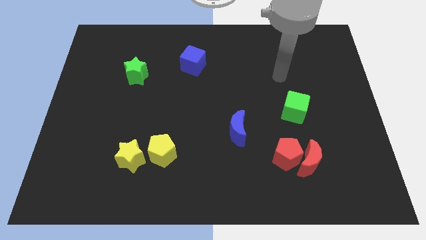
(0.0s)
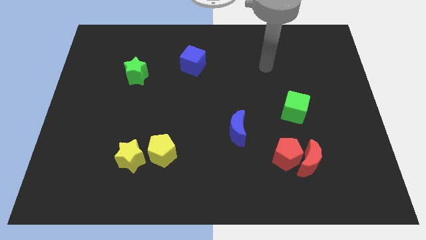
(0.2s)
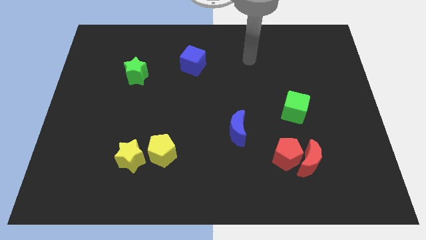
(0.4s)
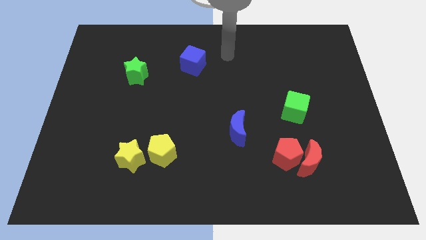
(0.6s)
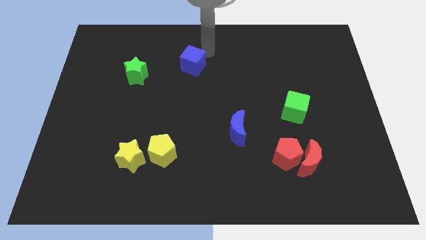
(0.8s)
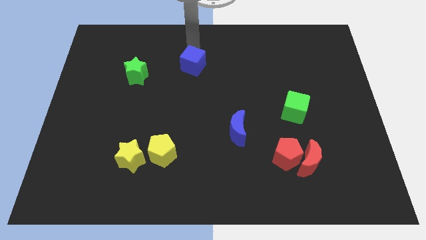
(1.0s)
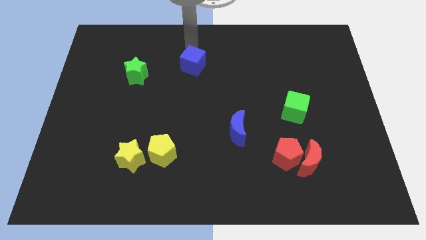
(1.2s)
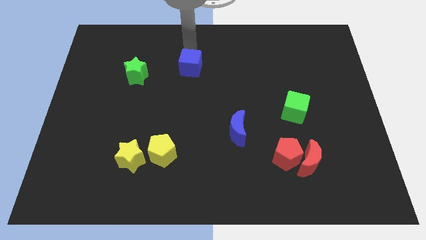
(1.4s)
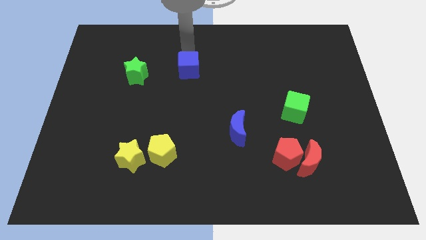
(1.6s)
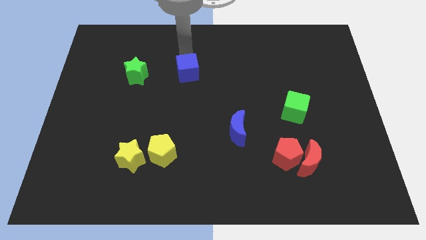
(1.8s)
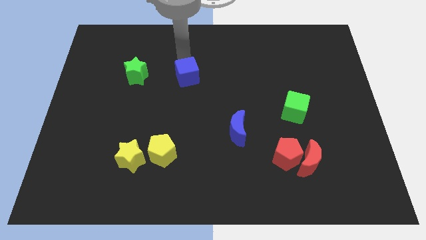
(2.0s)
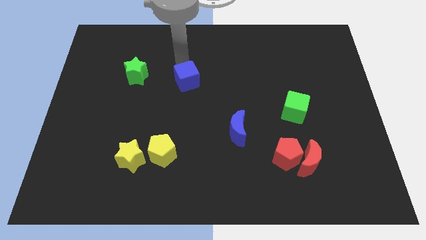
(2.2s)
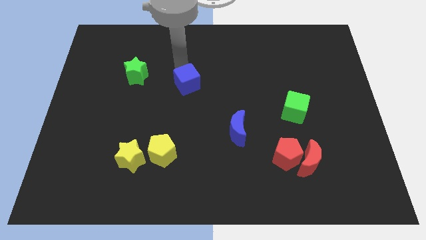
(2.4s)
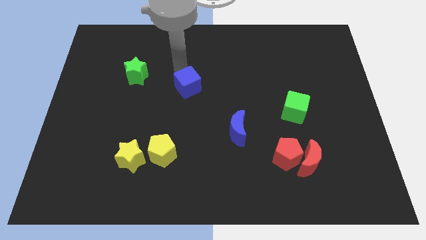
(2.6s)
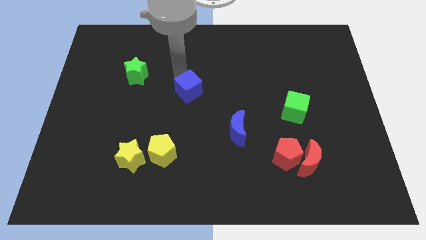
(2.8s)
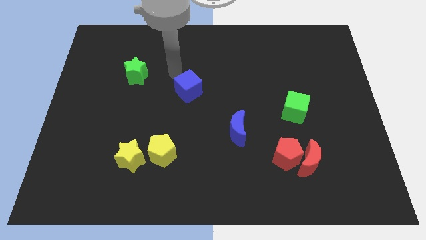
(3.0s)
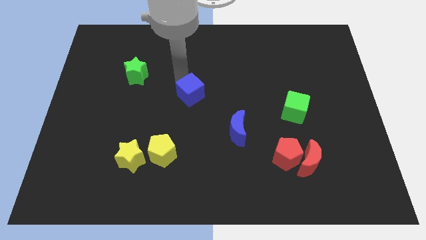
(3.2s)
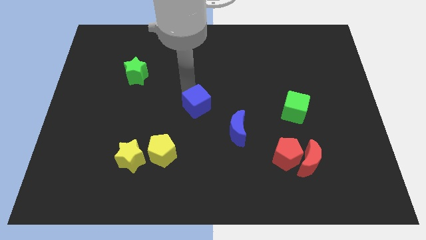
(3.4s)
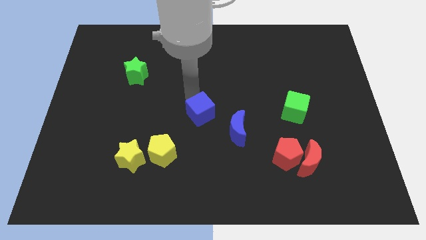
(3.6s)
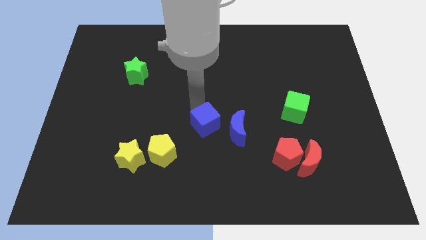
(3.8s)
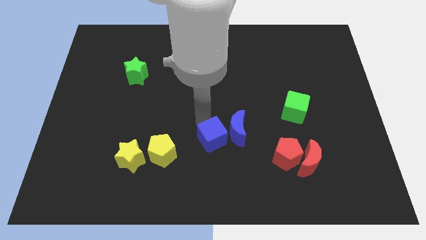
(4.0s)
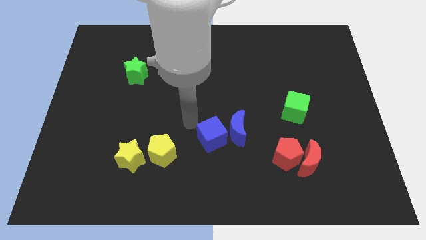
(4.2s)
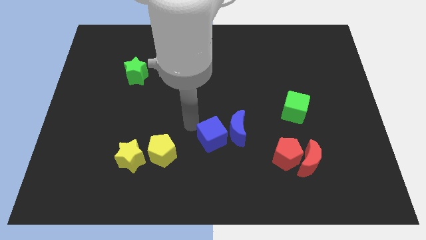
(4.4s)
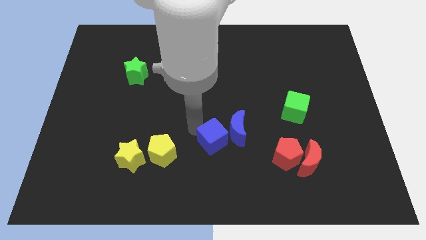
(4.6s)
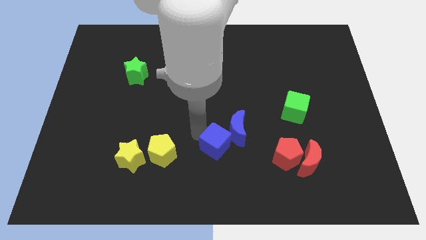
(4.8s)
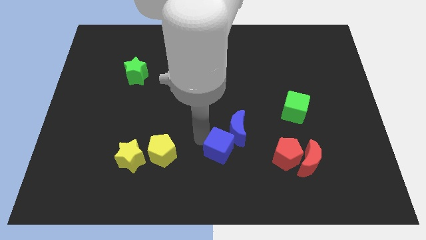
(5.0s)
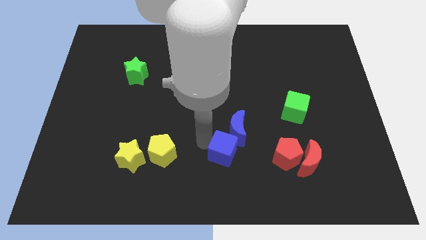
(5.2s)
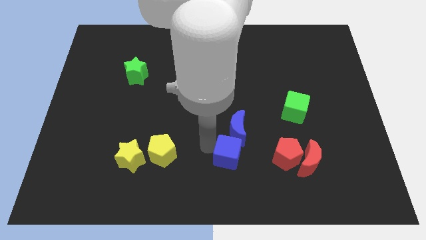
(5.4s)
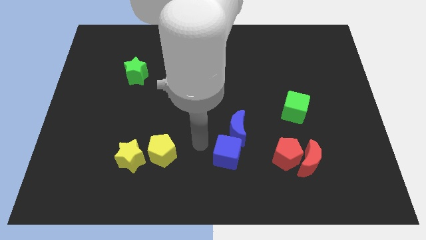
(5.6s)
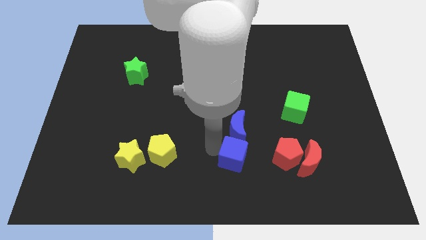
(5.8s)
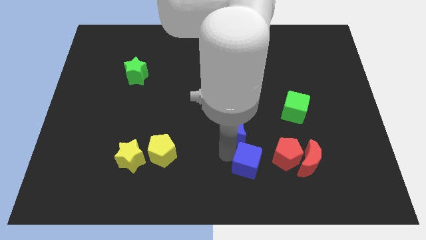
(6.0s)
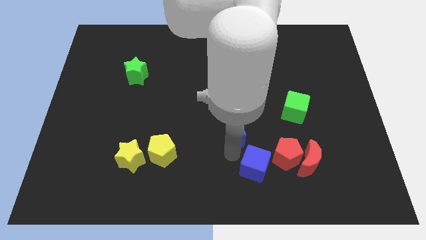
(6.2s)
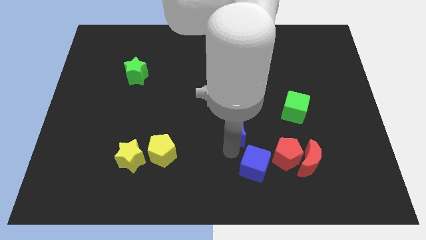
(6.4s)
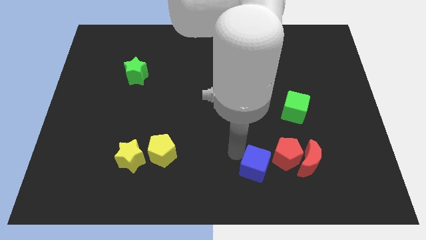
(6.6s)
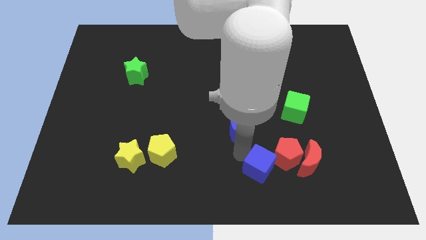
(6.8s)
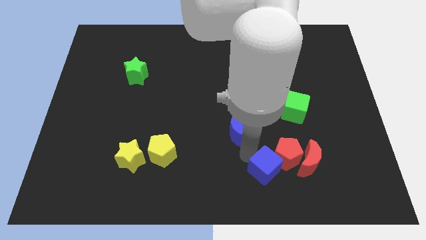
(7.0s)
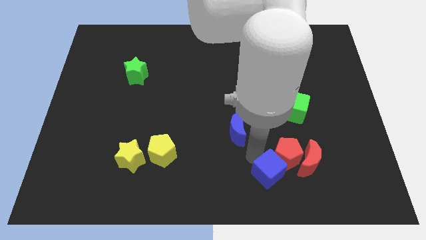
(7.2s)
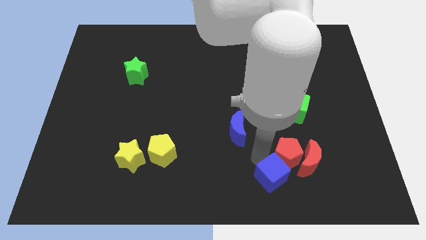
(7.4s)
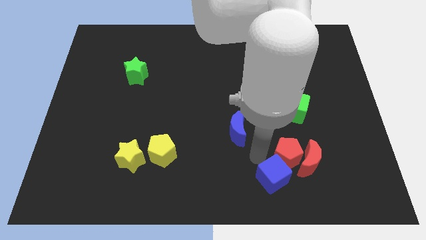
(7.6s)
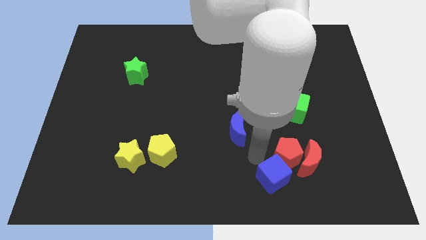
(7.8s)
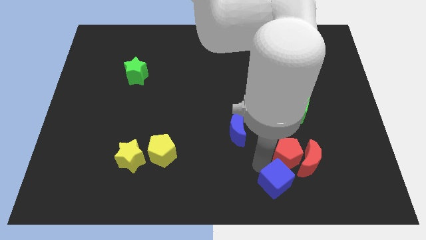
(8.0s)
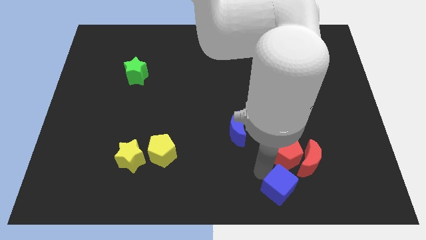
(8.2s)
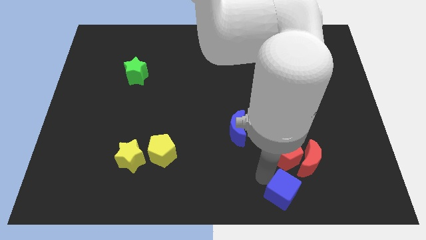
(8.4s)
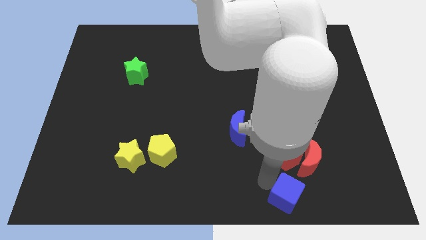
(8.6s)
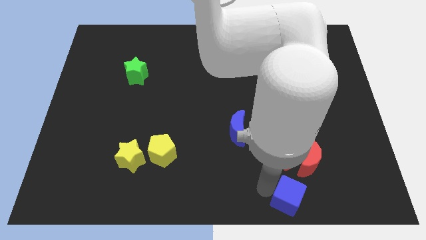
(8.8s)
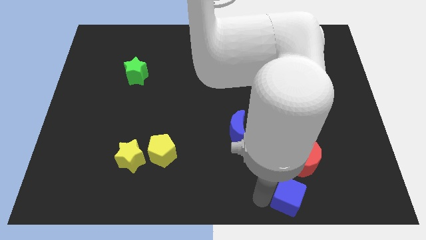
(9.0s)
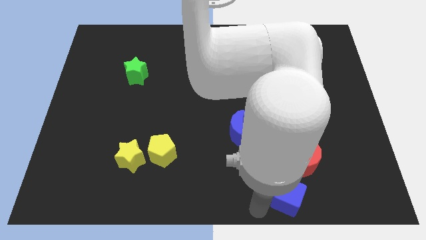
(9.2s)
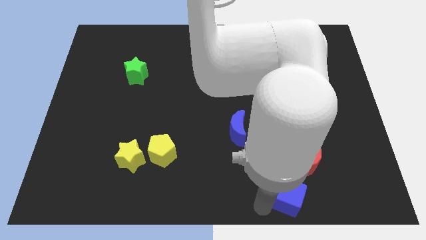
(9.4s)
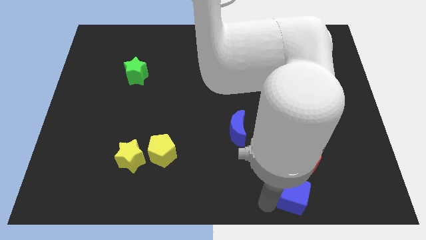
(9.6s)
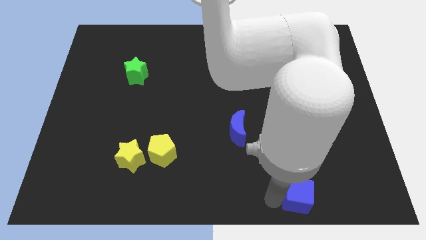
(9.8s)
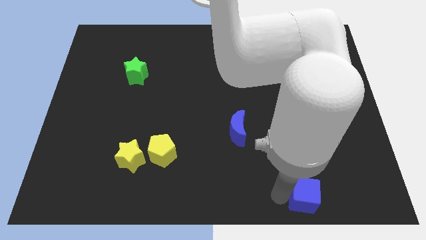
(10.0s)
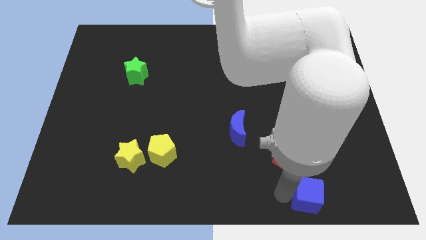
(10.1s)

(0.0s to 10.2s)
push the blue cube diagonally down and to the right of the red pentagon

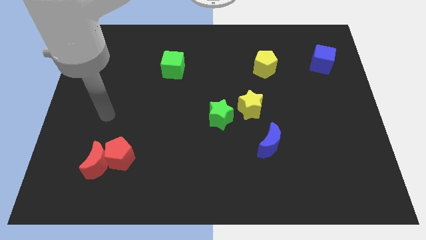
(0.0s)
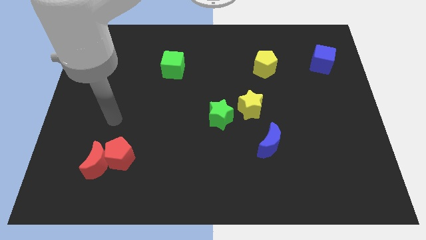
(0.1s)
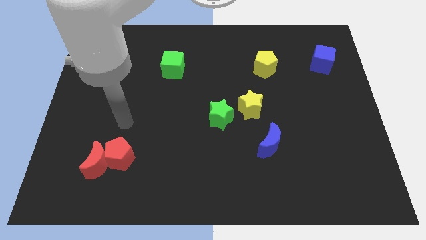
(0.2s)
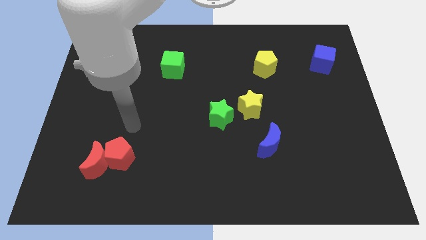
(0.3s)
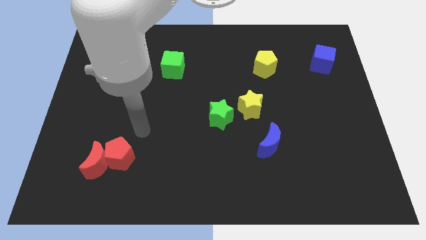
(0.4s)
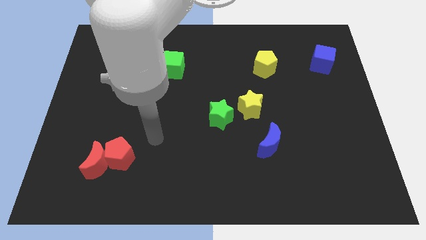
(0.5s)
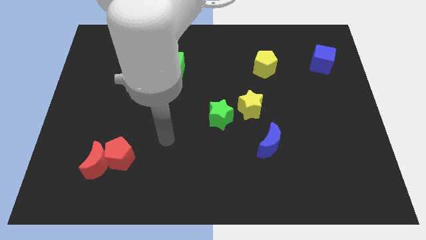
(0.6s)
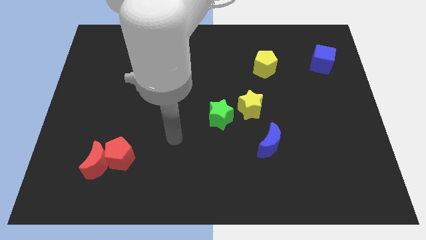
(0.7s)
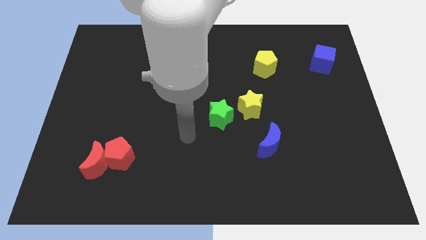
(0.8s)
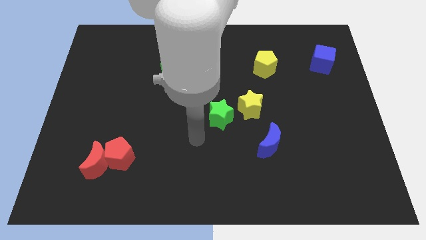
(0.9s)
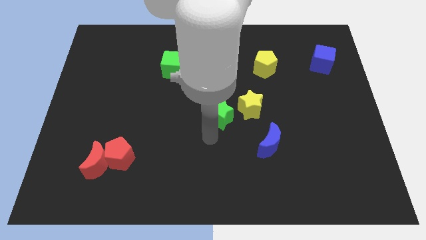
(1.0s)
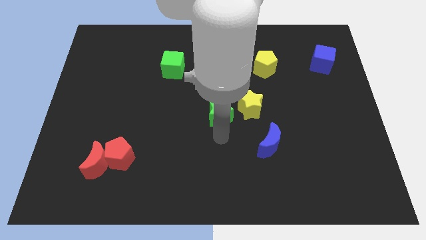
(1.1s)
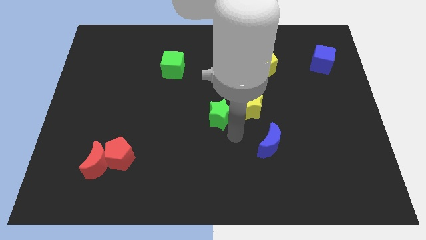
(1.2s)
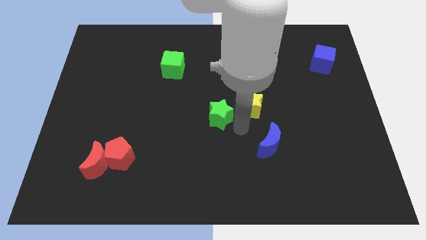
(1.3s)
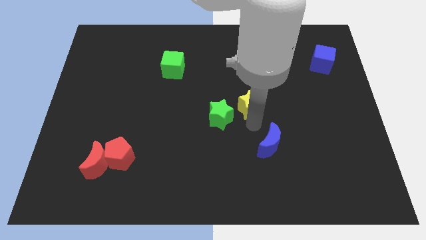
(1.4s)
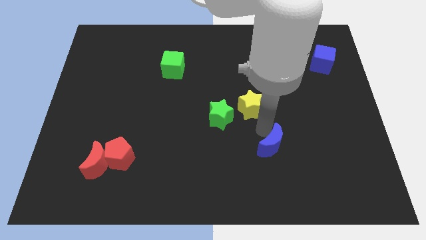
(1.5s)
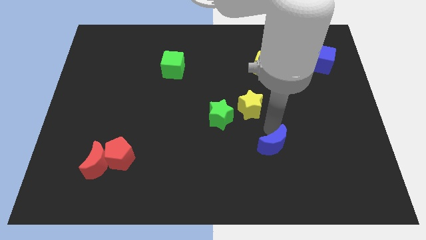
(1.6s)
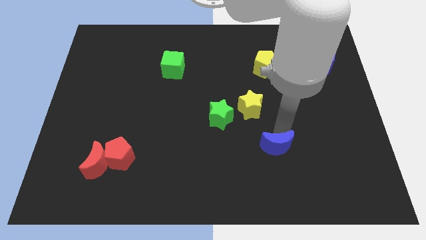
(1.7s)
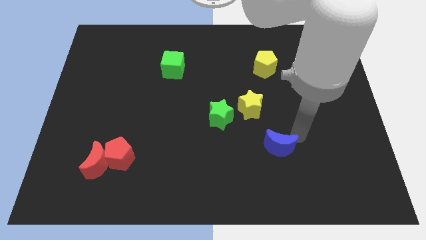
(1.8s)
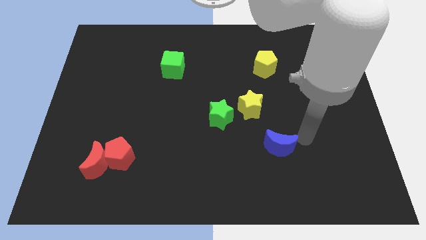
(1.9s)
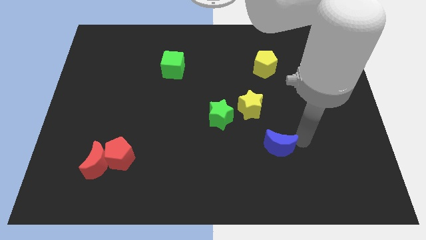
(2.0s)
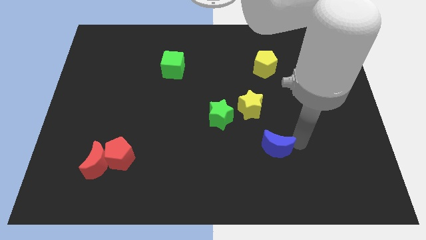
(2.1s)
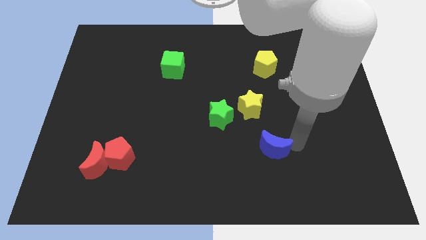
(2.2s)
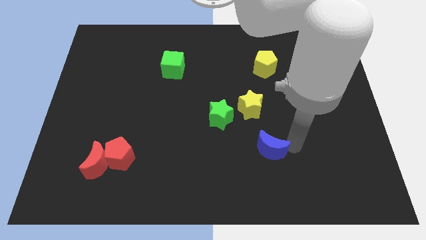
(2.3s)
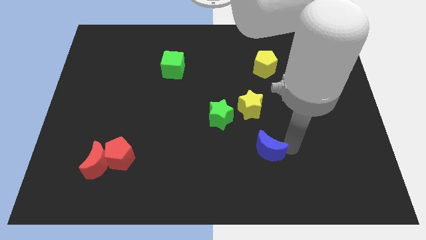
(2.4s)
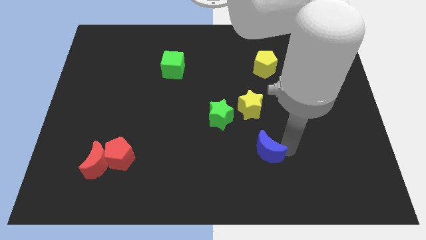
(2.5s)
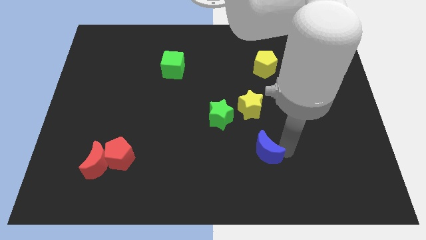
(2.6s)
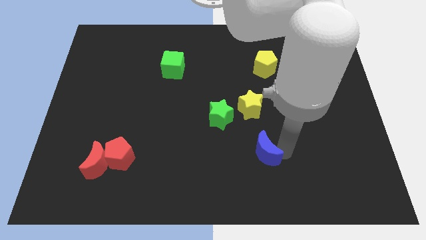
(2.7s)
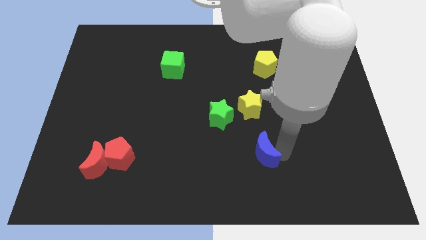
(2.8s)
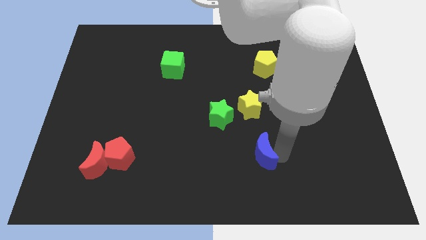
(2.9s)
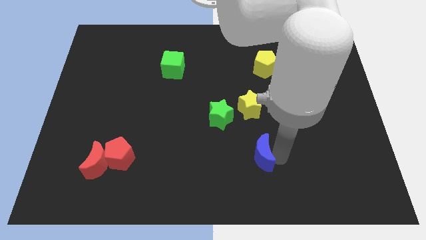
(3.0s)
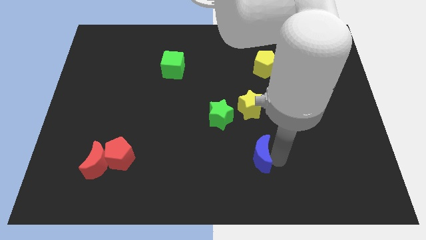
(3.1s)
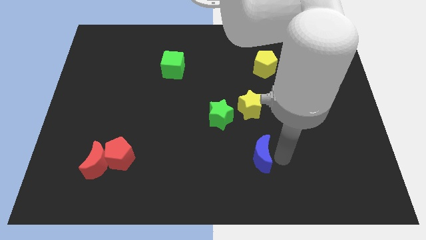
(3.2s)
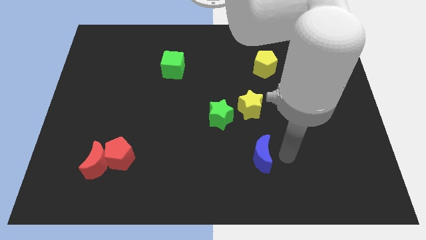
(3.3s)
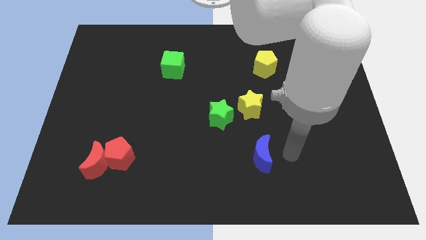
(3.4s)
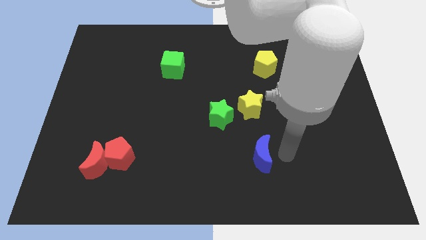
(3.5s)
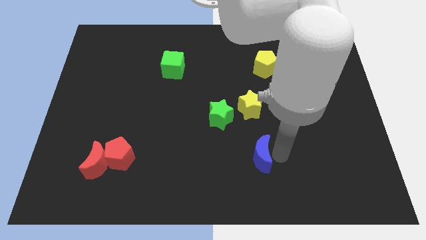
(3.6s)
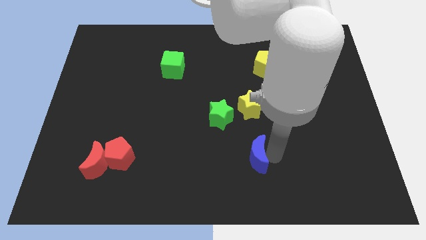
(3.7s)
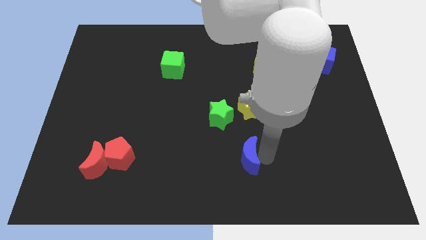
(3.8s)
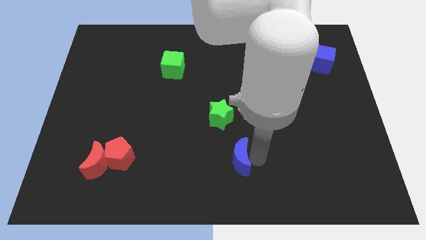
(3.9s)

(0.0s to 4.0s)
slide the blue moon to the bottom side of the green star
